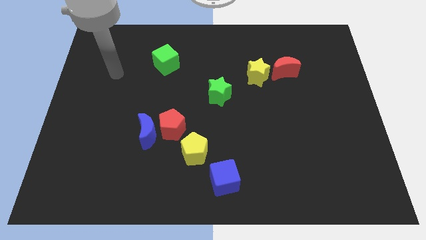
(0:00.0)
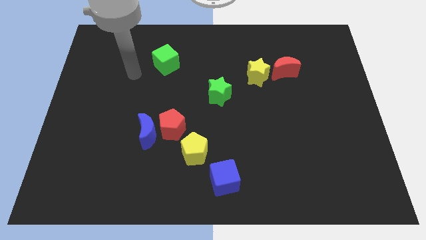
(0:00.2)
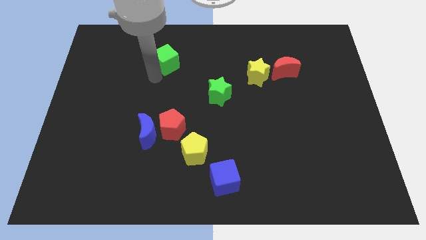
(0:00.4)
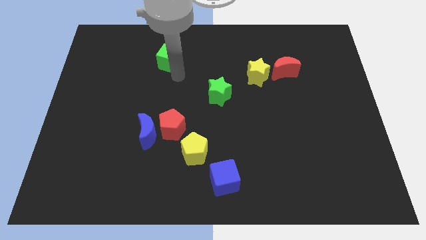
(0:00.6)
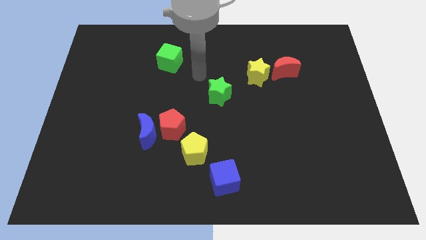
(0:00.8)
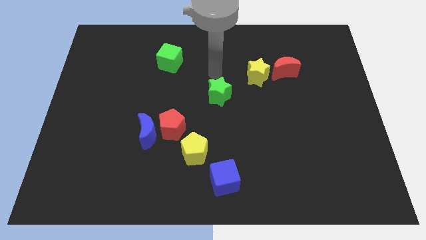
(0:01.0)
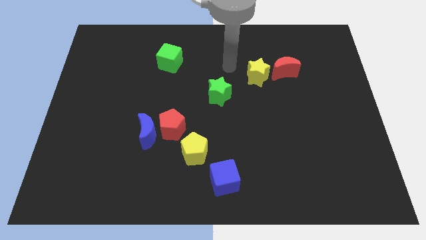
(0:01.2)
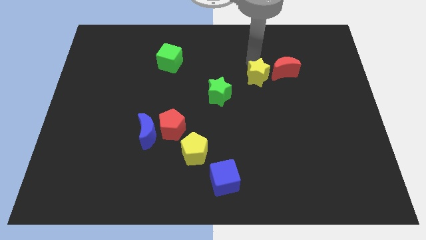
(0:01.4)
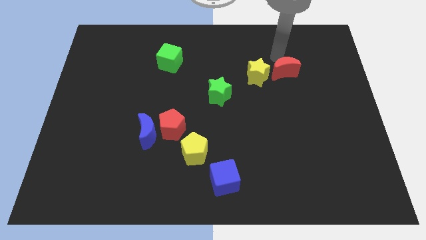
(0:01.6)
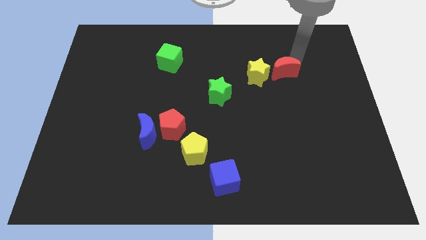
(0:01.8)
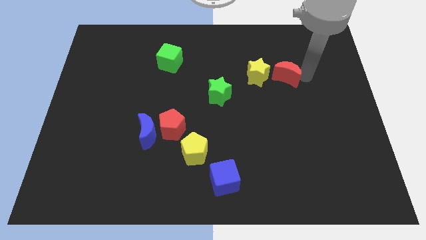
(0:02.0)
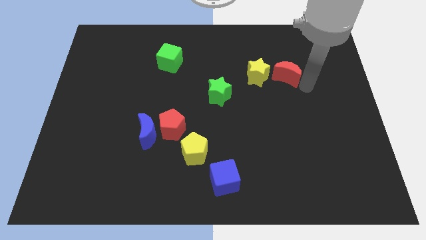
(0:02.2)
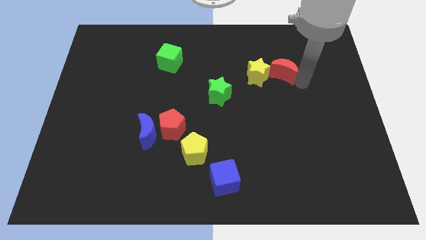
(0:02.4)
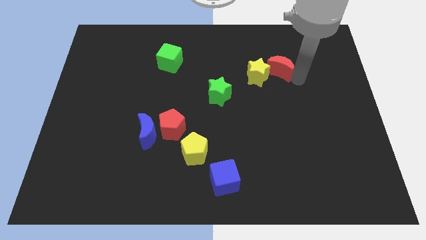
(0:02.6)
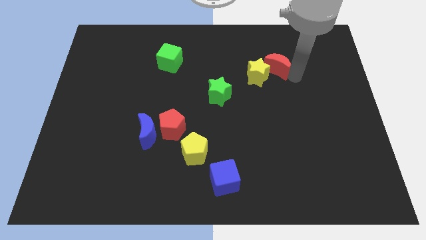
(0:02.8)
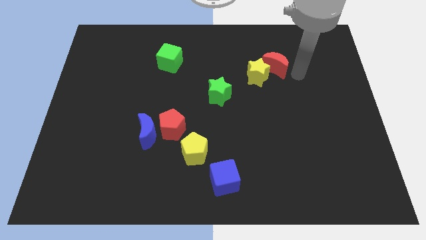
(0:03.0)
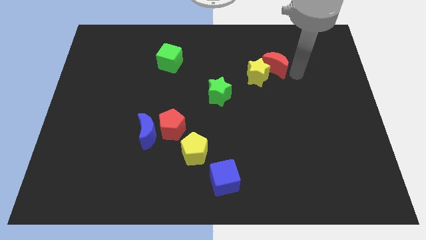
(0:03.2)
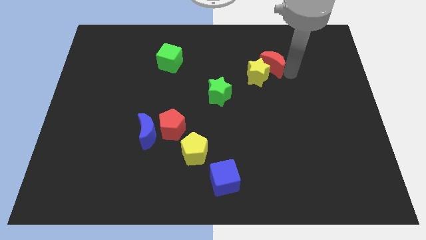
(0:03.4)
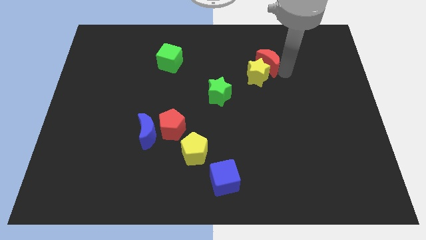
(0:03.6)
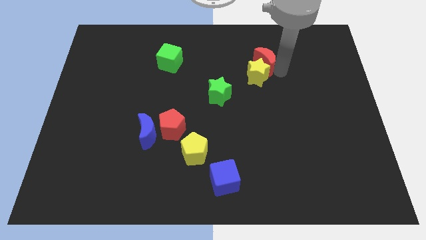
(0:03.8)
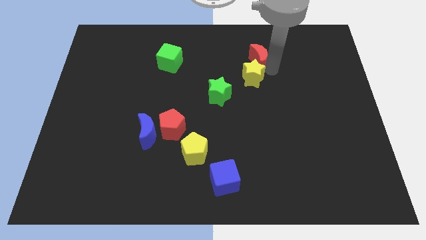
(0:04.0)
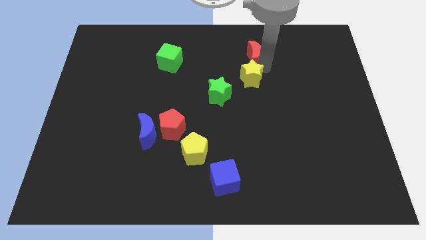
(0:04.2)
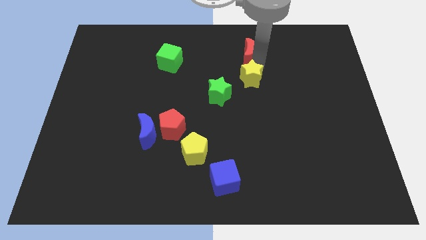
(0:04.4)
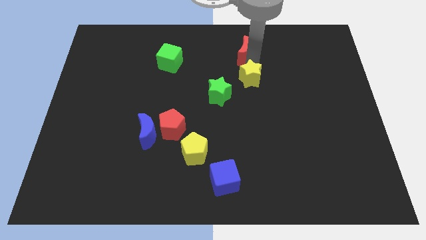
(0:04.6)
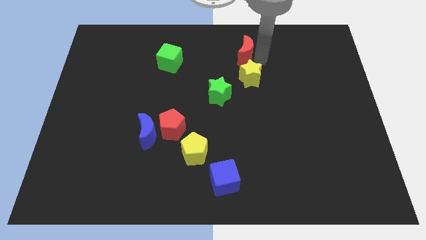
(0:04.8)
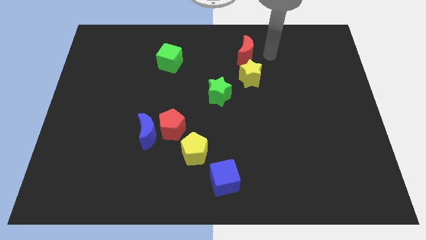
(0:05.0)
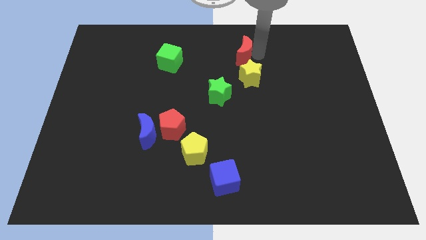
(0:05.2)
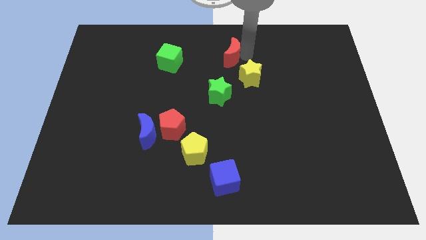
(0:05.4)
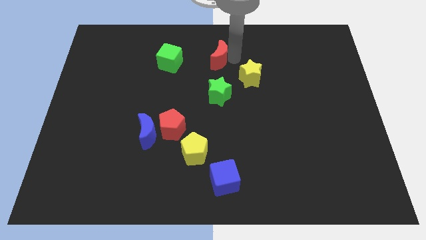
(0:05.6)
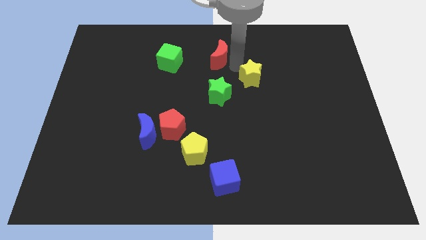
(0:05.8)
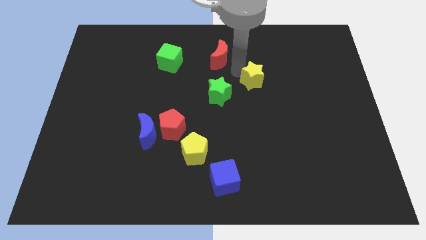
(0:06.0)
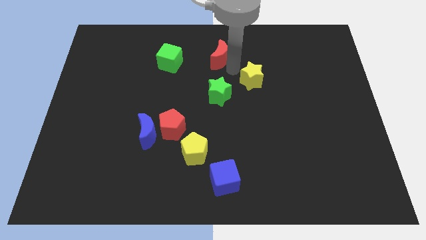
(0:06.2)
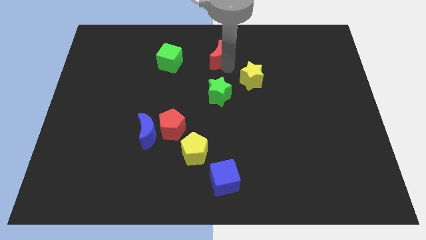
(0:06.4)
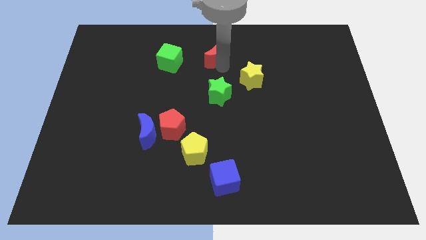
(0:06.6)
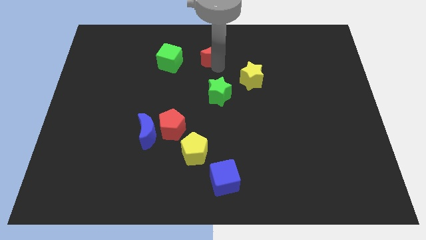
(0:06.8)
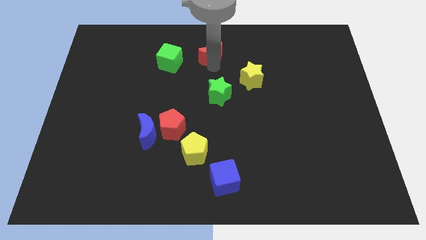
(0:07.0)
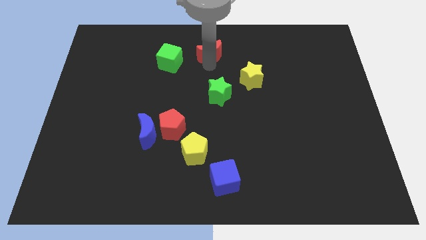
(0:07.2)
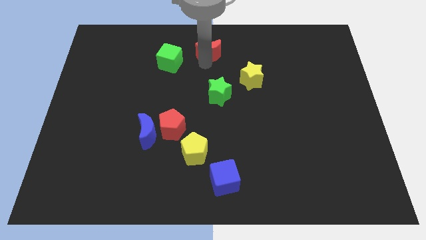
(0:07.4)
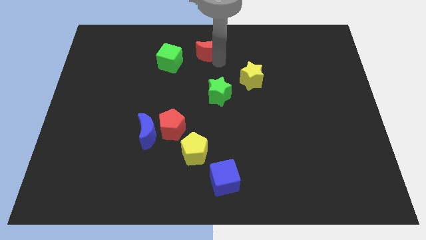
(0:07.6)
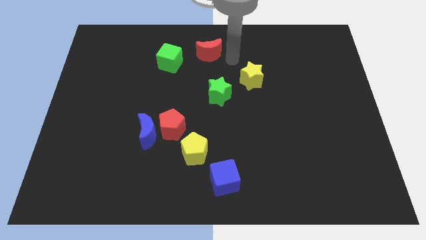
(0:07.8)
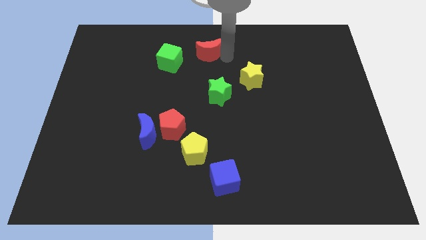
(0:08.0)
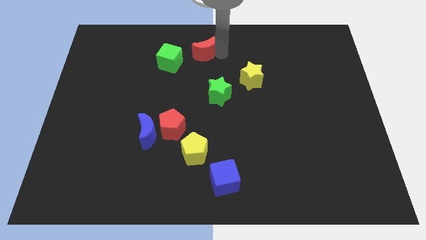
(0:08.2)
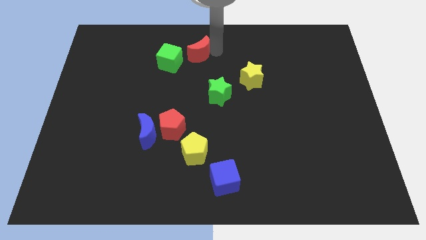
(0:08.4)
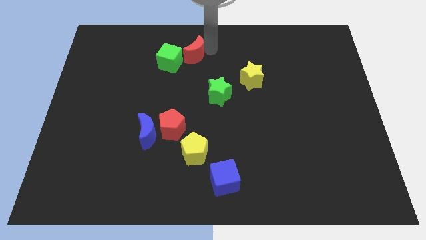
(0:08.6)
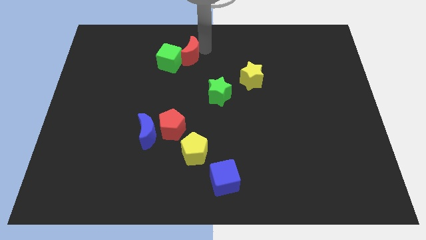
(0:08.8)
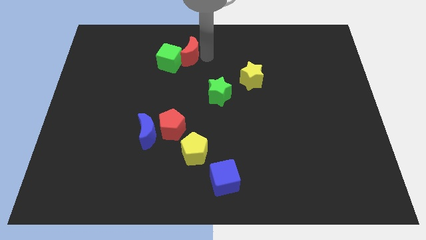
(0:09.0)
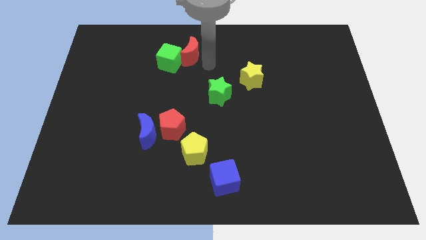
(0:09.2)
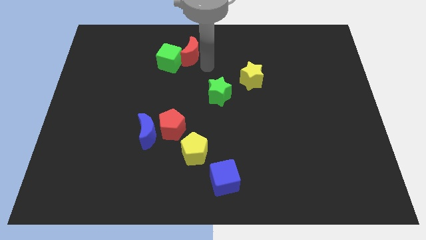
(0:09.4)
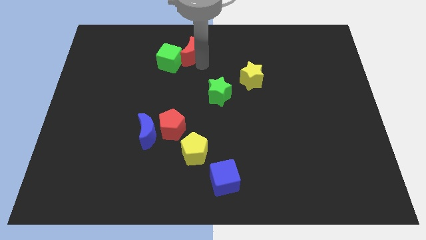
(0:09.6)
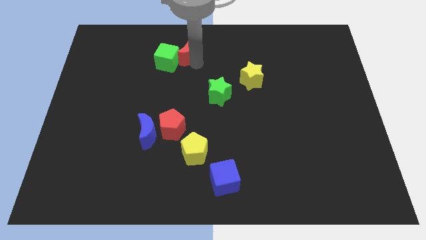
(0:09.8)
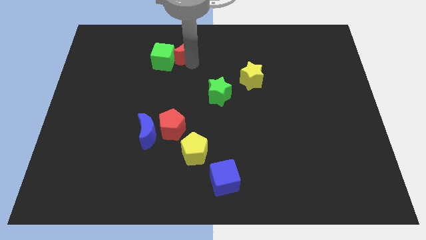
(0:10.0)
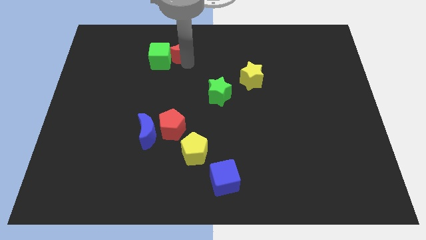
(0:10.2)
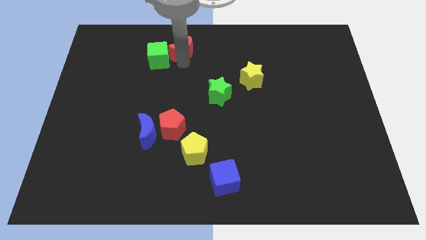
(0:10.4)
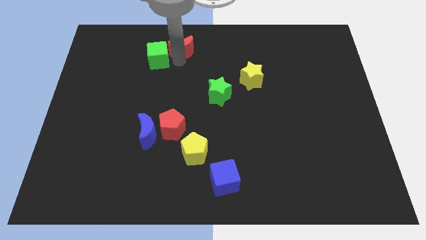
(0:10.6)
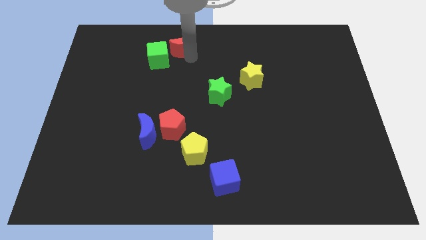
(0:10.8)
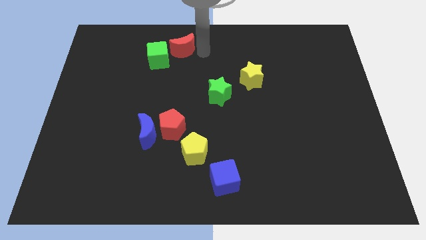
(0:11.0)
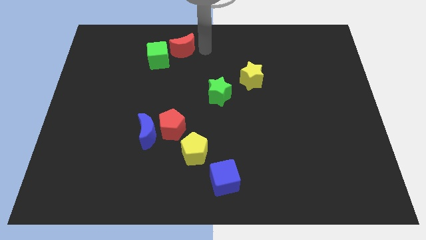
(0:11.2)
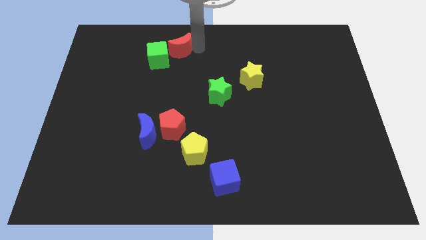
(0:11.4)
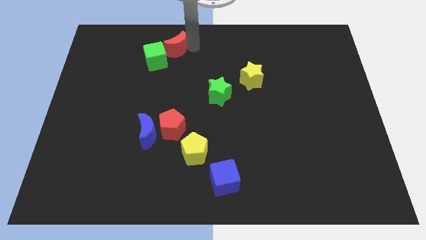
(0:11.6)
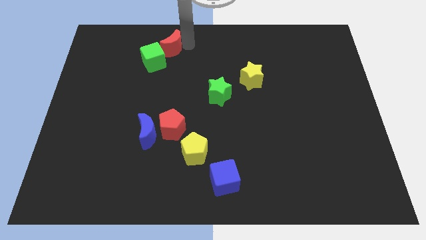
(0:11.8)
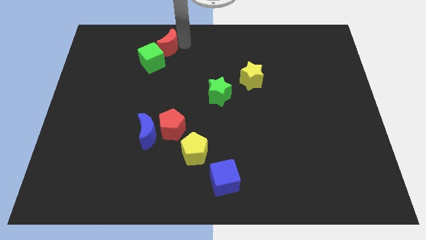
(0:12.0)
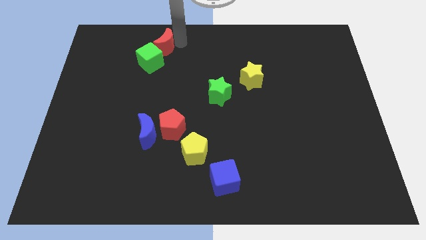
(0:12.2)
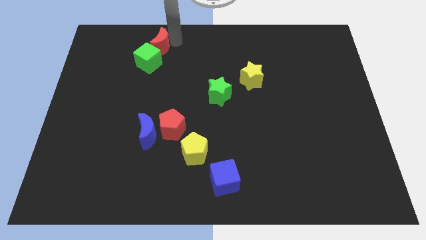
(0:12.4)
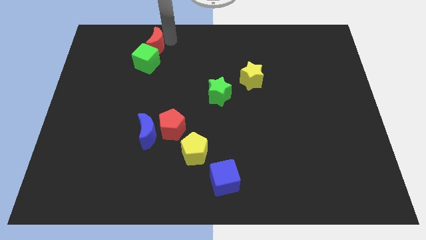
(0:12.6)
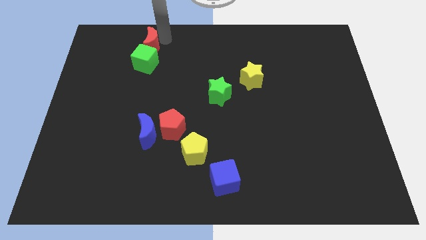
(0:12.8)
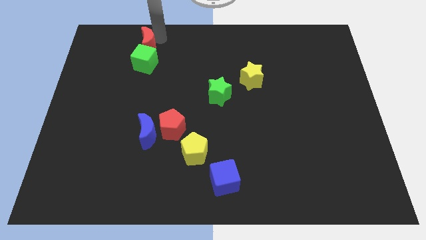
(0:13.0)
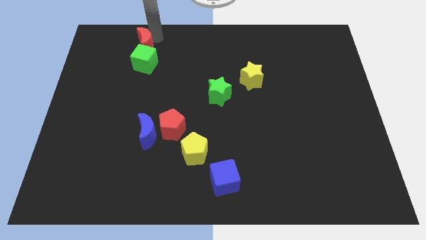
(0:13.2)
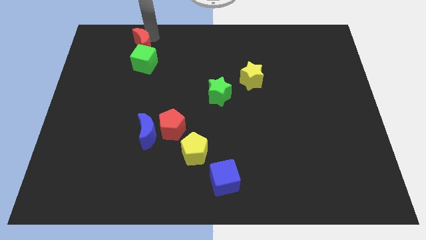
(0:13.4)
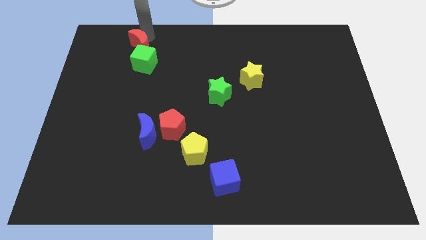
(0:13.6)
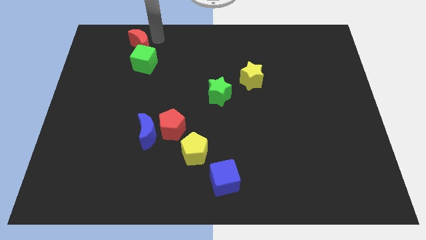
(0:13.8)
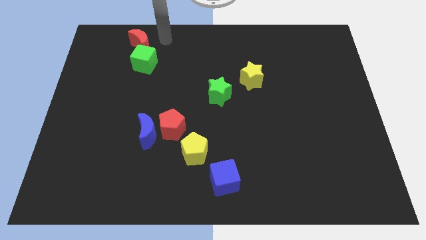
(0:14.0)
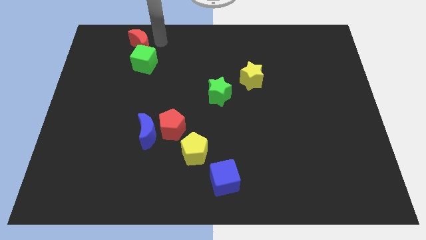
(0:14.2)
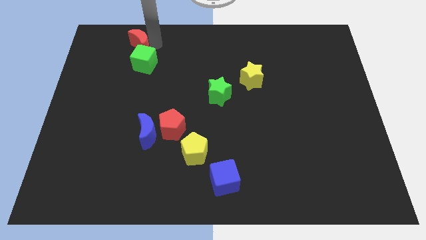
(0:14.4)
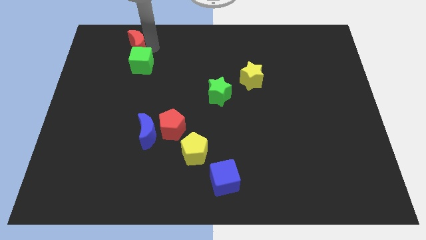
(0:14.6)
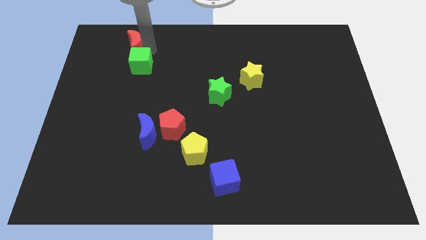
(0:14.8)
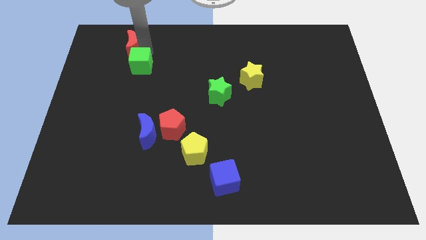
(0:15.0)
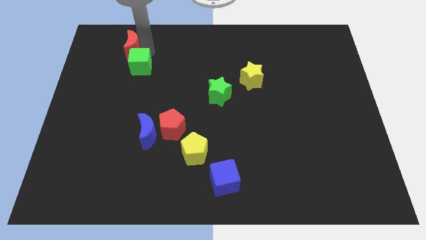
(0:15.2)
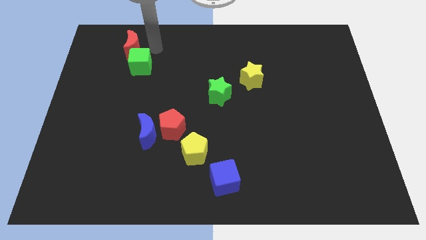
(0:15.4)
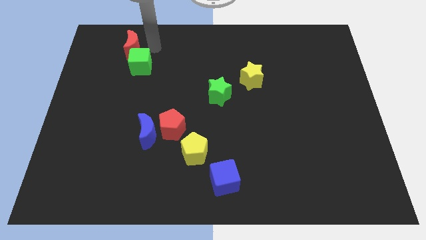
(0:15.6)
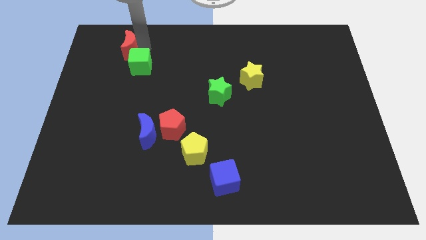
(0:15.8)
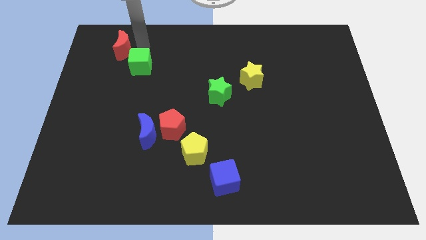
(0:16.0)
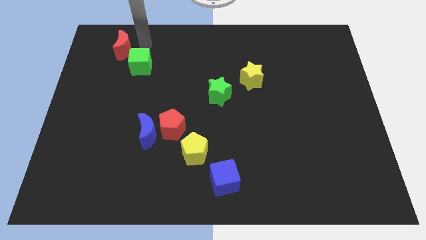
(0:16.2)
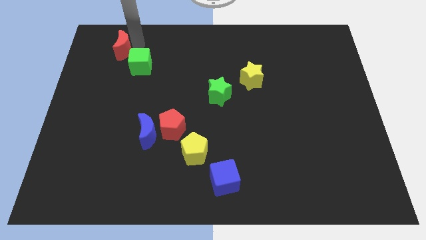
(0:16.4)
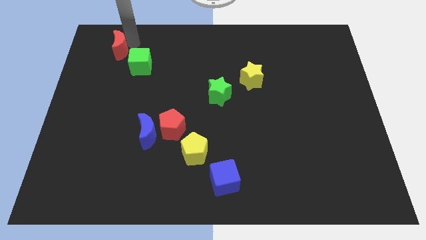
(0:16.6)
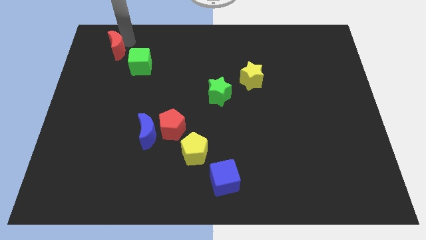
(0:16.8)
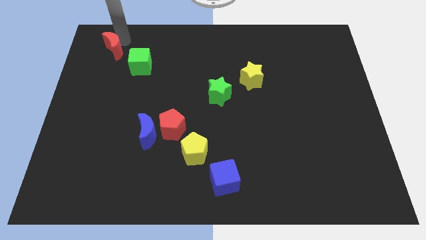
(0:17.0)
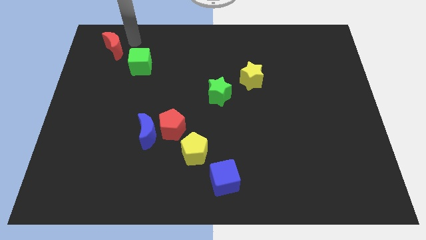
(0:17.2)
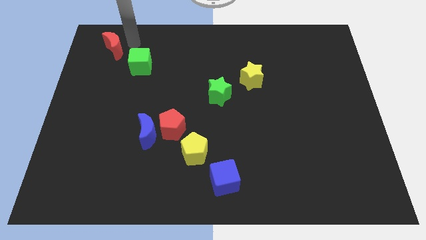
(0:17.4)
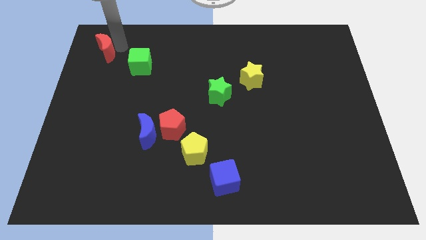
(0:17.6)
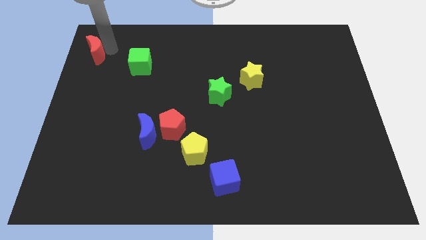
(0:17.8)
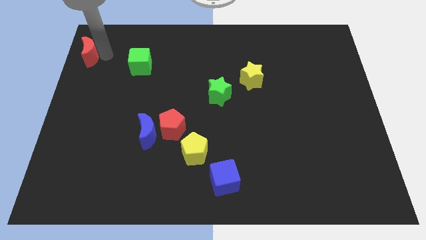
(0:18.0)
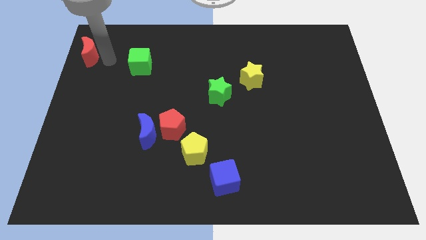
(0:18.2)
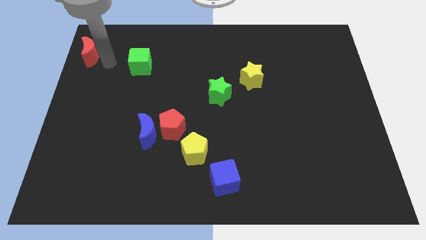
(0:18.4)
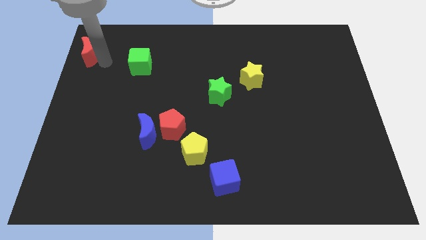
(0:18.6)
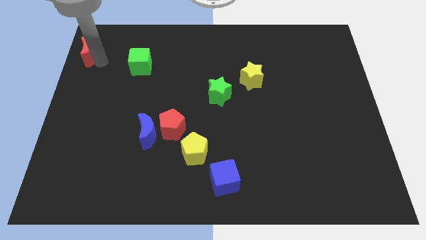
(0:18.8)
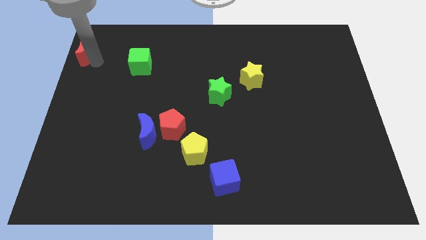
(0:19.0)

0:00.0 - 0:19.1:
push the red moon to the upper left corner
